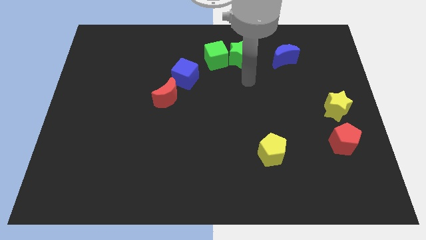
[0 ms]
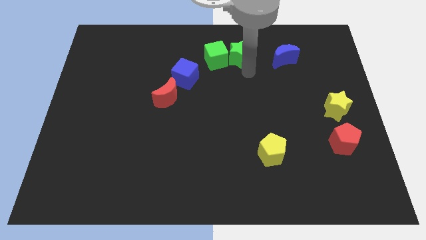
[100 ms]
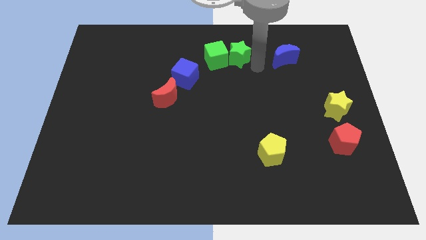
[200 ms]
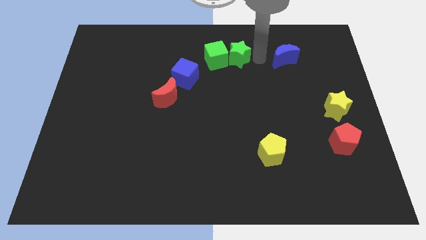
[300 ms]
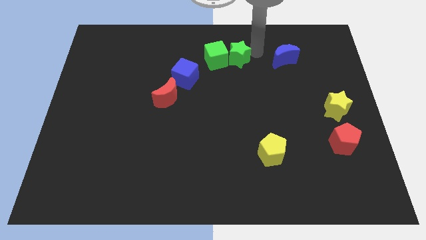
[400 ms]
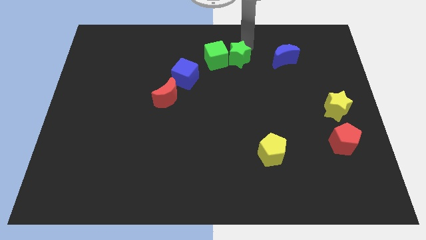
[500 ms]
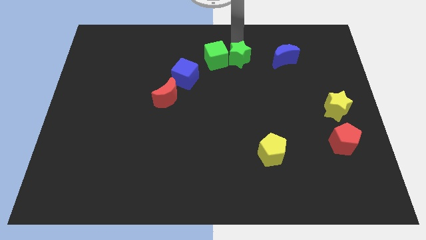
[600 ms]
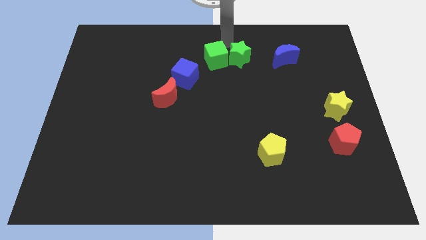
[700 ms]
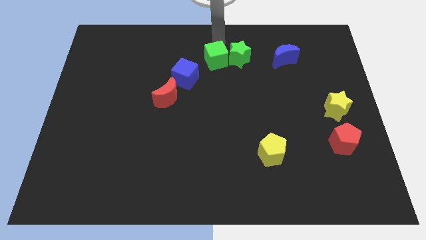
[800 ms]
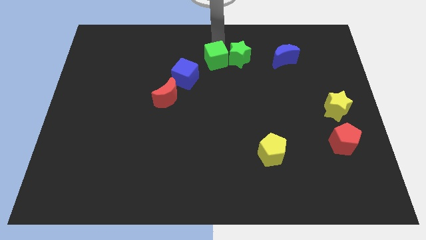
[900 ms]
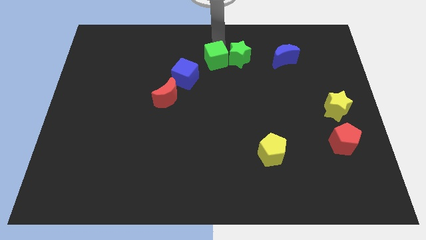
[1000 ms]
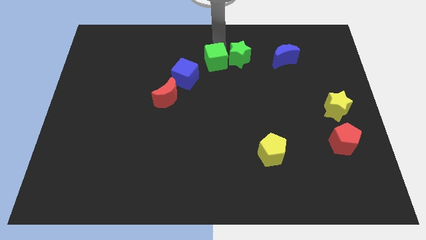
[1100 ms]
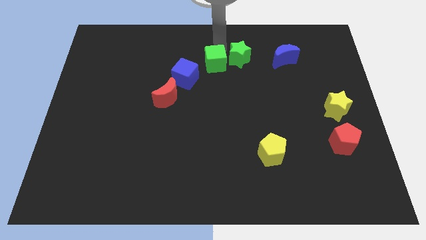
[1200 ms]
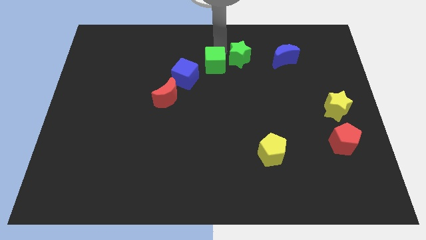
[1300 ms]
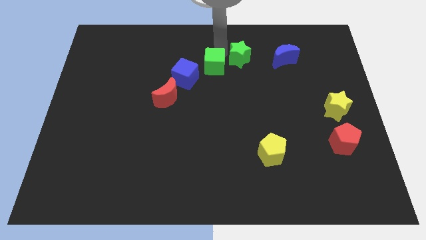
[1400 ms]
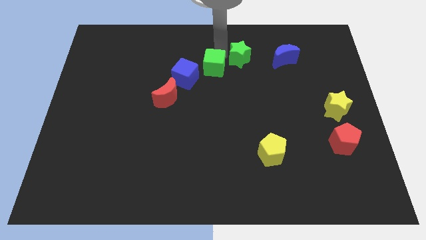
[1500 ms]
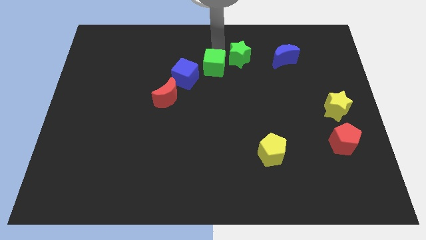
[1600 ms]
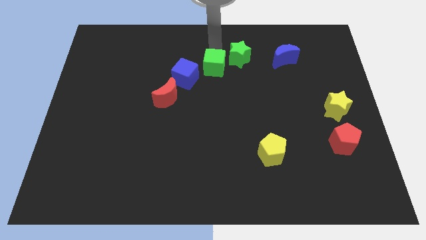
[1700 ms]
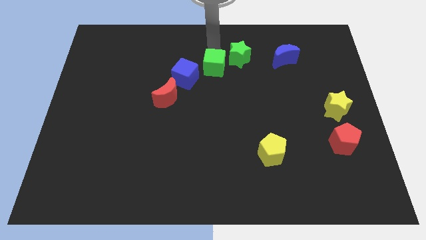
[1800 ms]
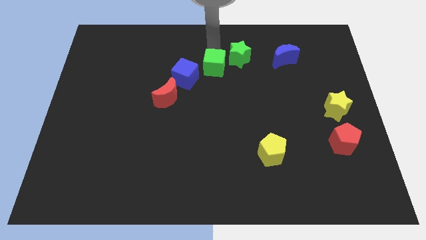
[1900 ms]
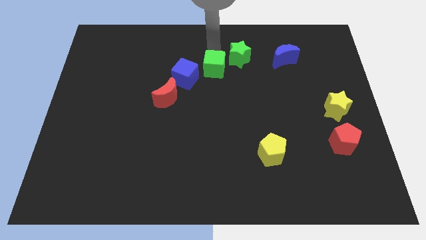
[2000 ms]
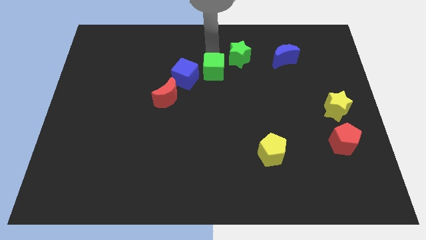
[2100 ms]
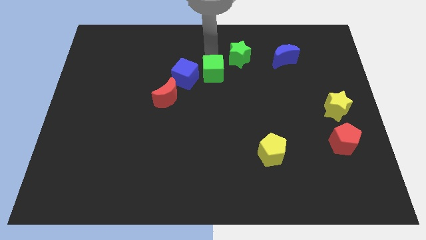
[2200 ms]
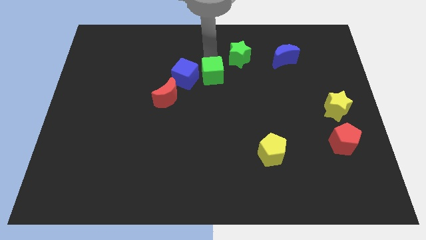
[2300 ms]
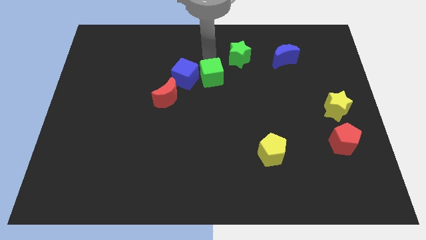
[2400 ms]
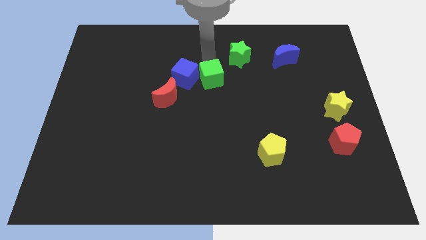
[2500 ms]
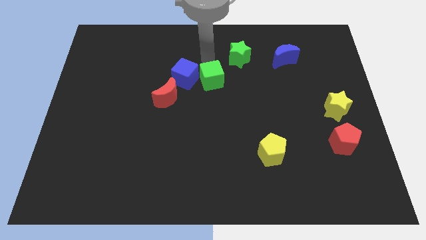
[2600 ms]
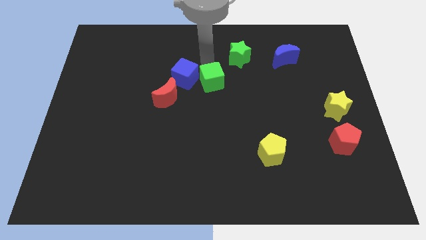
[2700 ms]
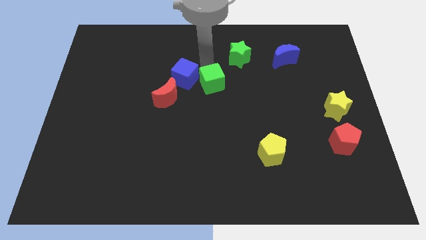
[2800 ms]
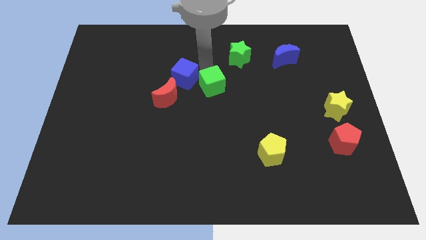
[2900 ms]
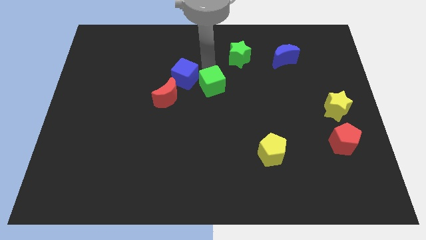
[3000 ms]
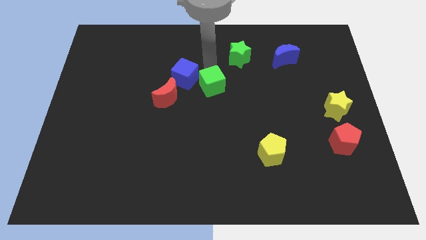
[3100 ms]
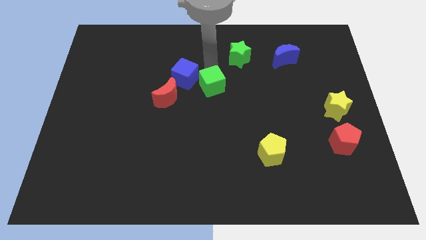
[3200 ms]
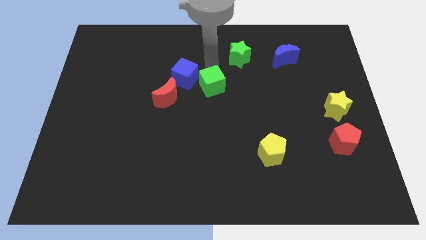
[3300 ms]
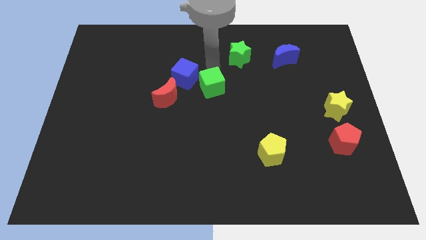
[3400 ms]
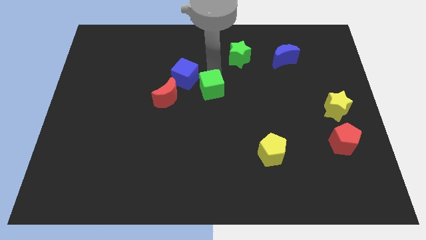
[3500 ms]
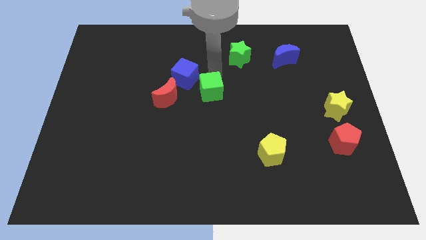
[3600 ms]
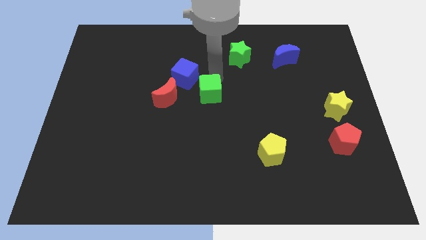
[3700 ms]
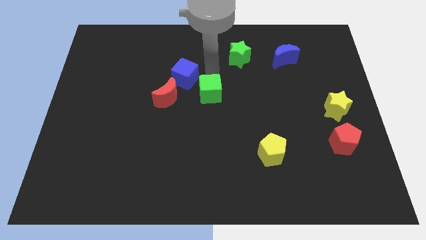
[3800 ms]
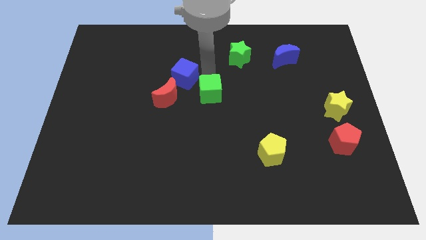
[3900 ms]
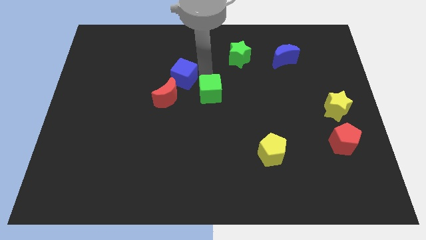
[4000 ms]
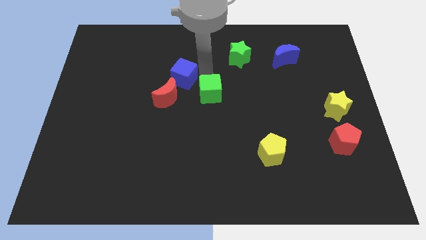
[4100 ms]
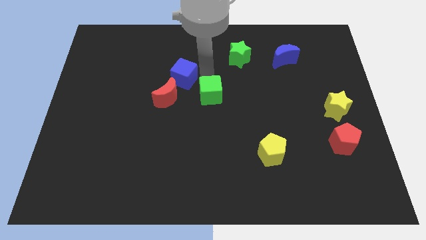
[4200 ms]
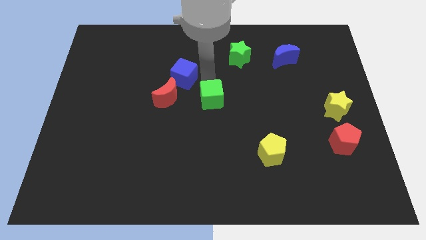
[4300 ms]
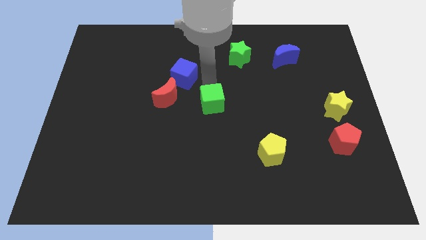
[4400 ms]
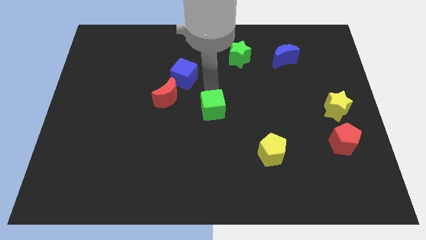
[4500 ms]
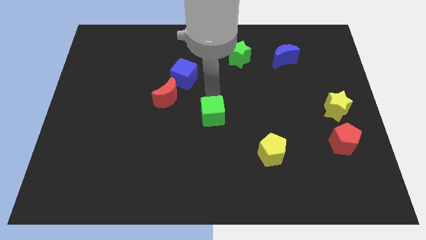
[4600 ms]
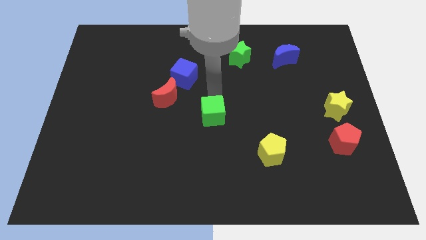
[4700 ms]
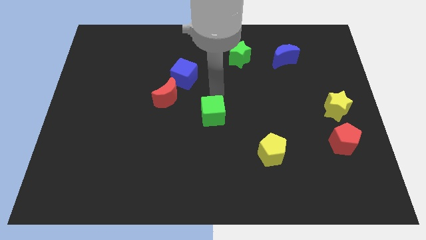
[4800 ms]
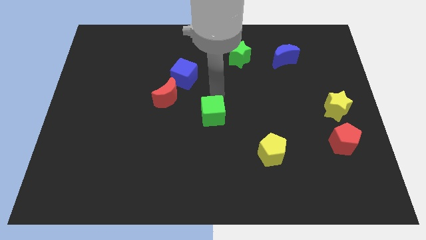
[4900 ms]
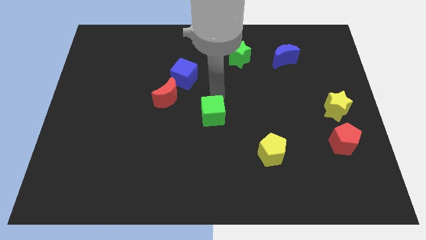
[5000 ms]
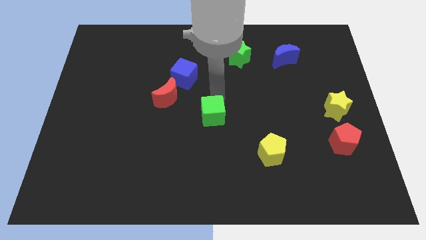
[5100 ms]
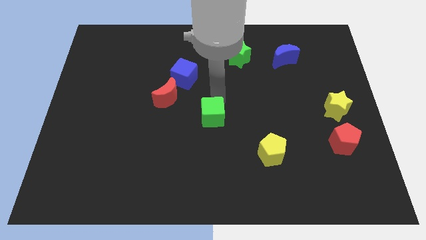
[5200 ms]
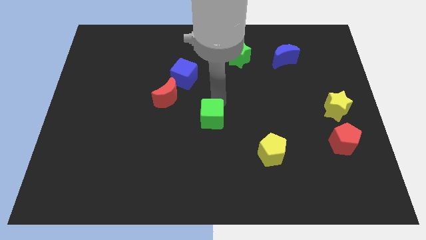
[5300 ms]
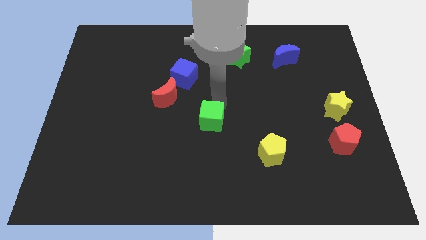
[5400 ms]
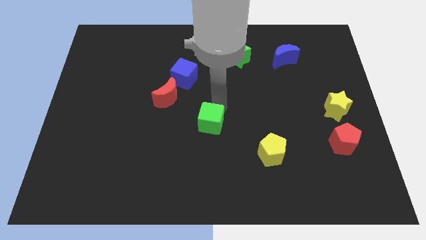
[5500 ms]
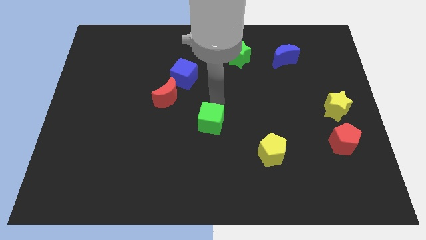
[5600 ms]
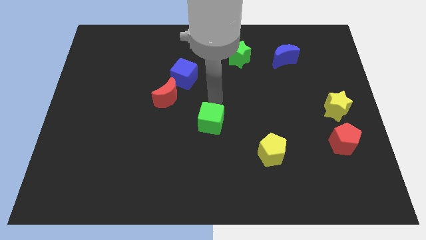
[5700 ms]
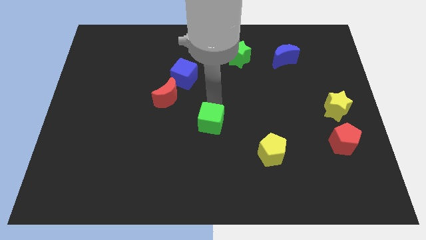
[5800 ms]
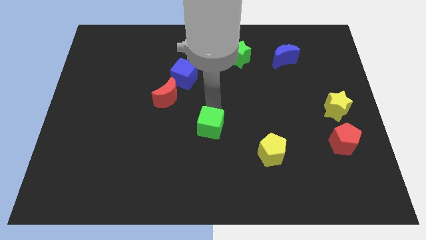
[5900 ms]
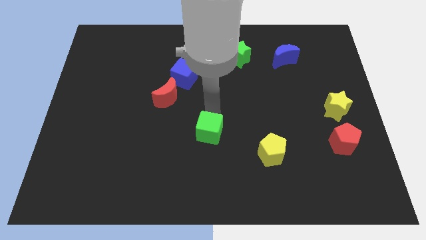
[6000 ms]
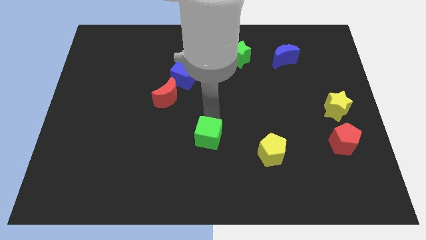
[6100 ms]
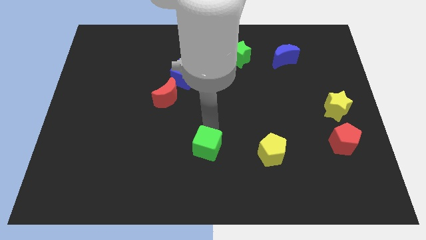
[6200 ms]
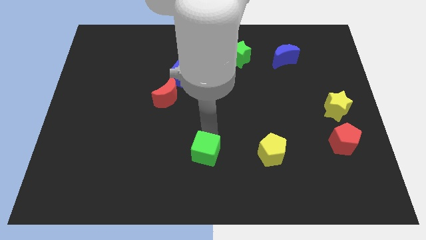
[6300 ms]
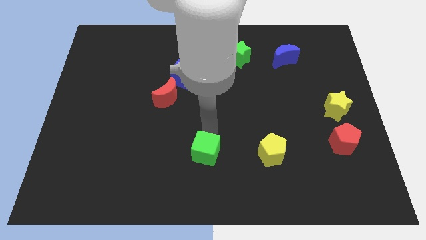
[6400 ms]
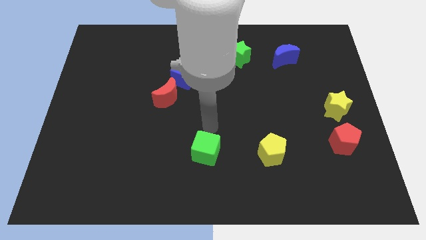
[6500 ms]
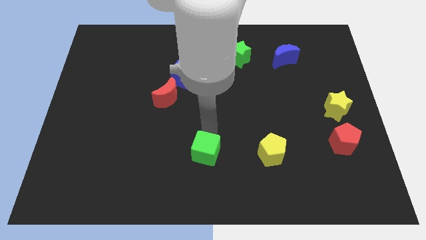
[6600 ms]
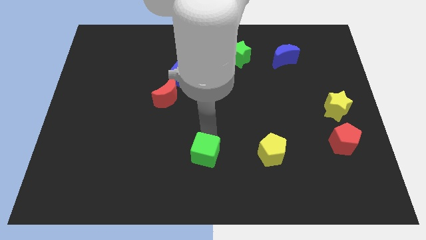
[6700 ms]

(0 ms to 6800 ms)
put the green cube to the bottom side
